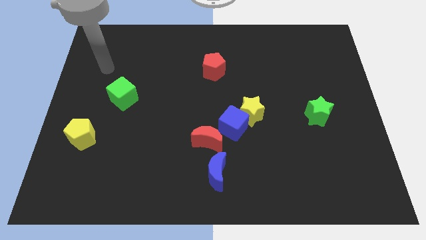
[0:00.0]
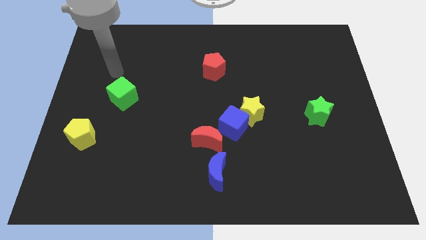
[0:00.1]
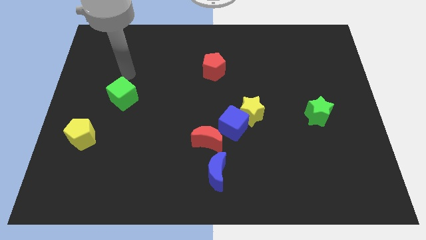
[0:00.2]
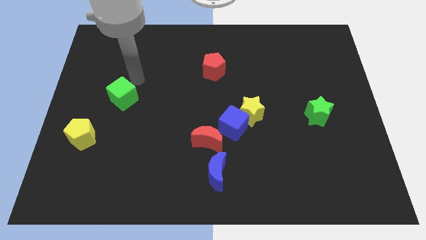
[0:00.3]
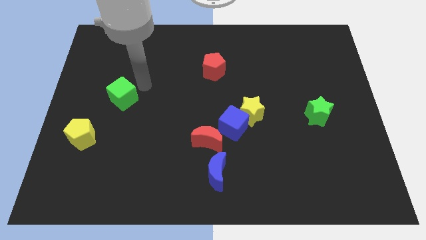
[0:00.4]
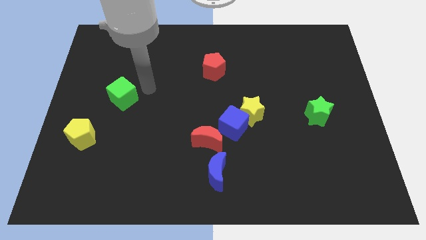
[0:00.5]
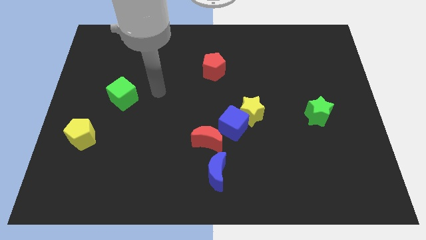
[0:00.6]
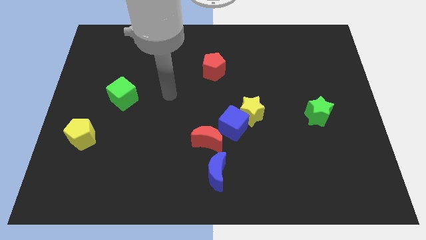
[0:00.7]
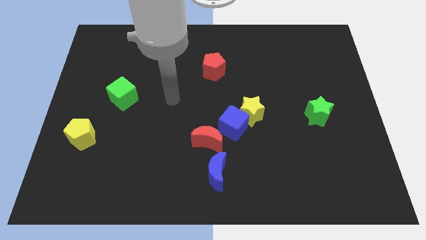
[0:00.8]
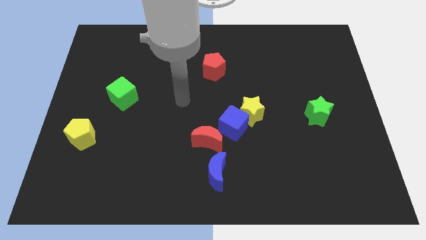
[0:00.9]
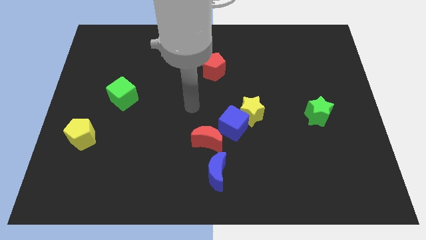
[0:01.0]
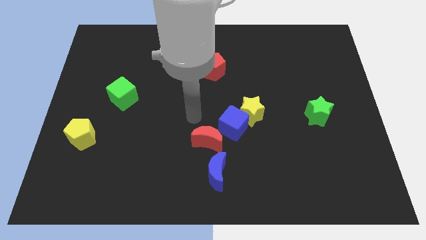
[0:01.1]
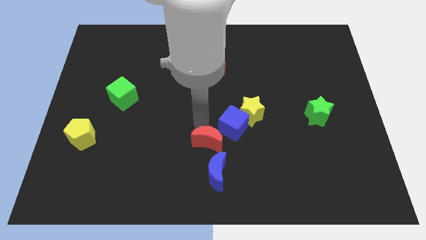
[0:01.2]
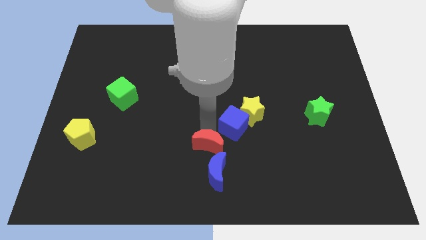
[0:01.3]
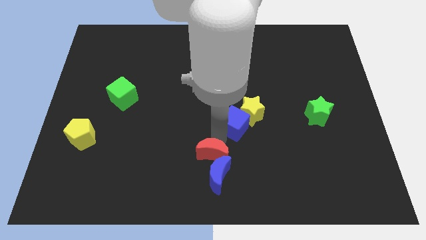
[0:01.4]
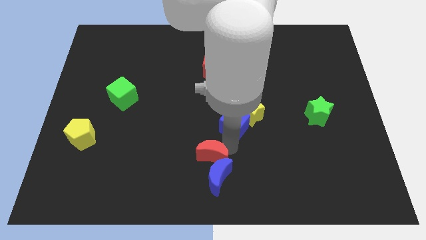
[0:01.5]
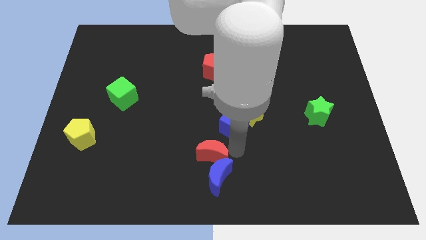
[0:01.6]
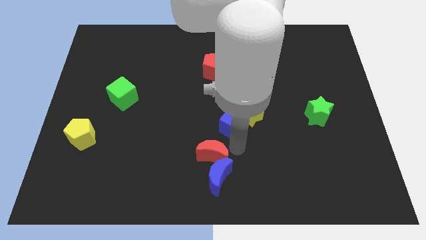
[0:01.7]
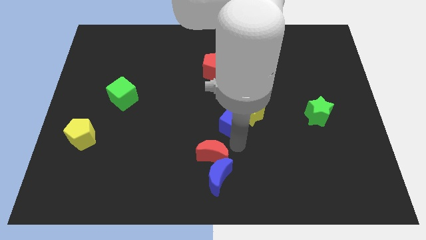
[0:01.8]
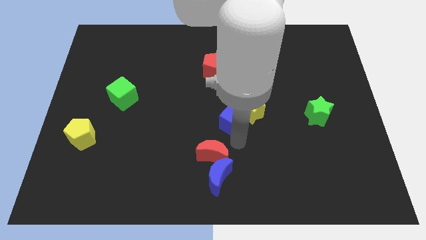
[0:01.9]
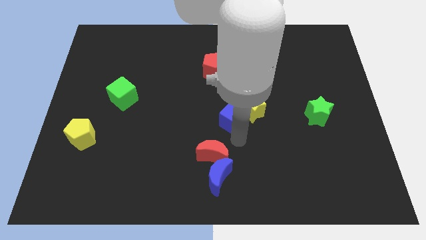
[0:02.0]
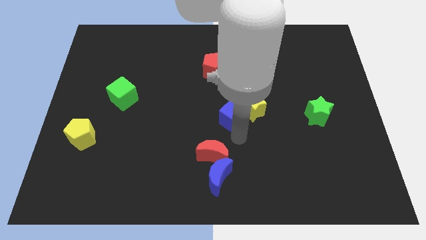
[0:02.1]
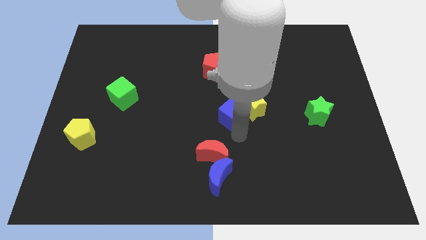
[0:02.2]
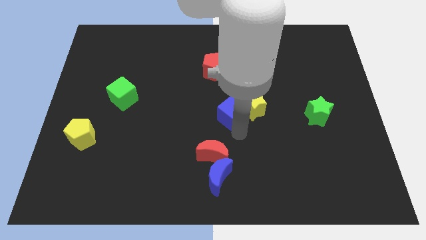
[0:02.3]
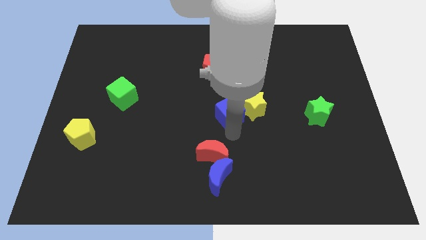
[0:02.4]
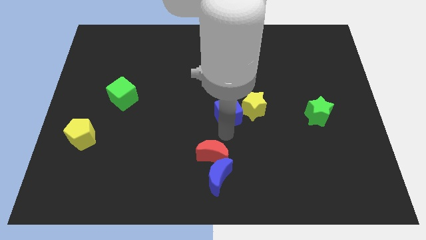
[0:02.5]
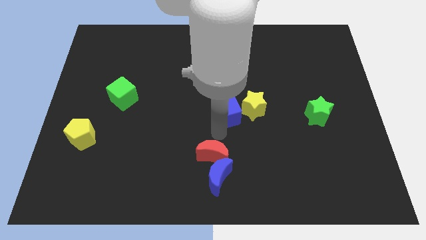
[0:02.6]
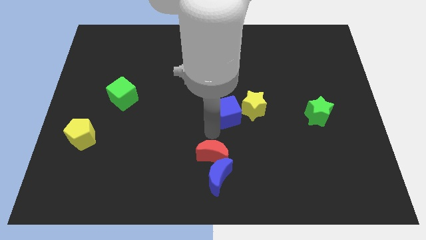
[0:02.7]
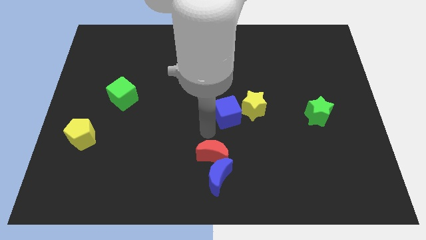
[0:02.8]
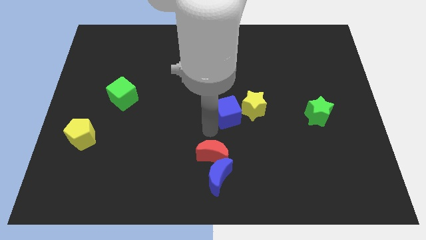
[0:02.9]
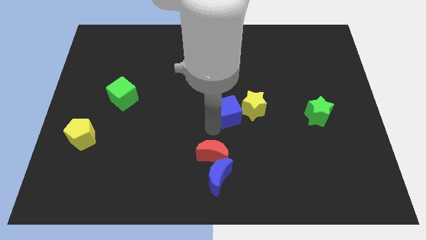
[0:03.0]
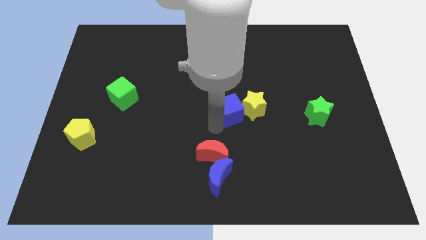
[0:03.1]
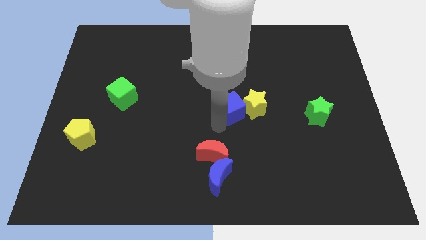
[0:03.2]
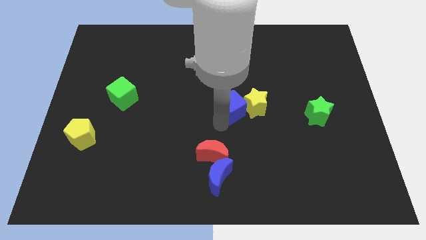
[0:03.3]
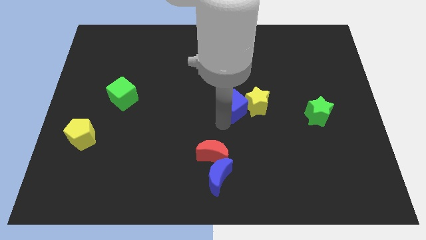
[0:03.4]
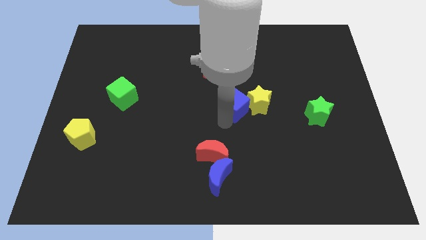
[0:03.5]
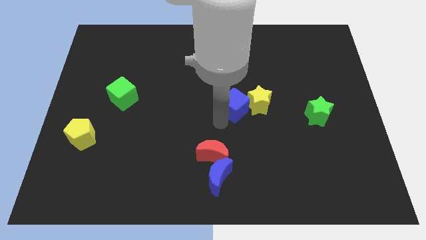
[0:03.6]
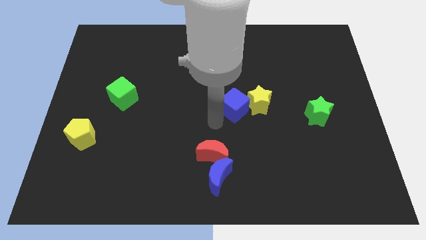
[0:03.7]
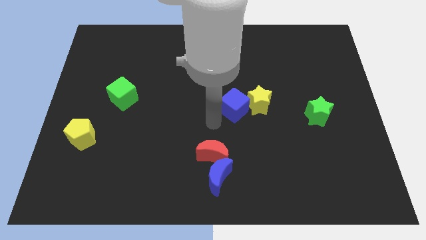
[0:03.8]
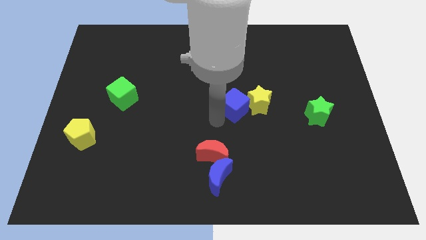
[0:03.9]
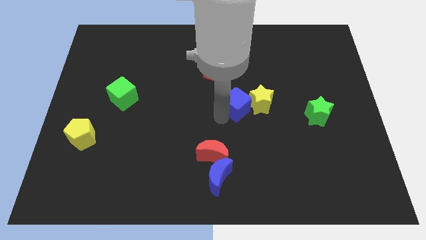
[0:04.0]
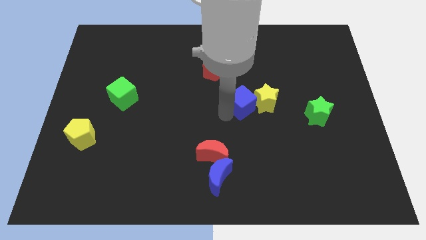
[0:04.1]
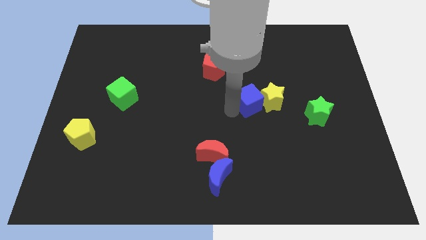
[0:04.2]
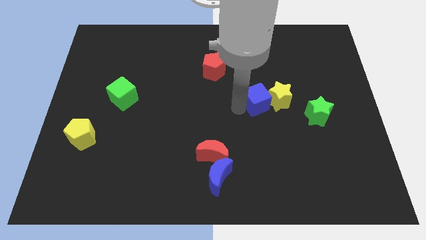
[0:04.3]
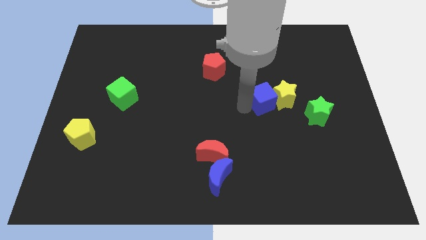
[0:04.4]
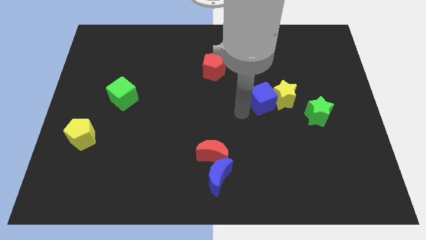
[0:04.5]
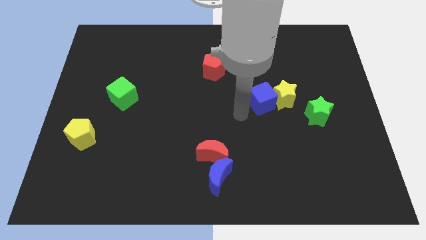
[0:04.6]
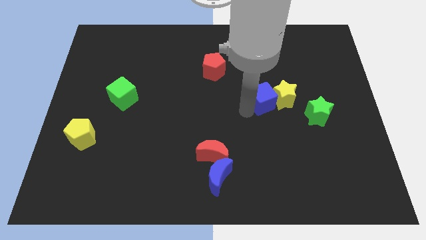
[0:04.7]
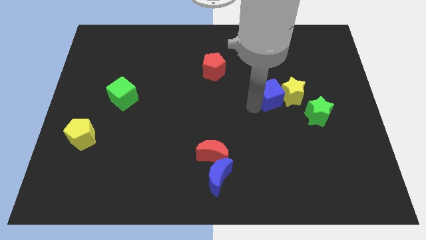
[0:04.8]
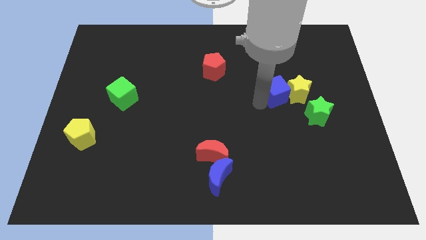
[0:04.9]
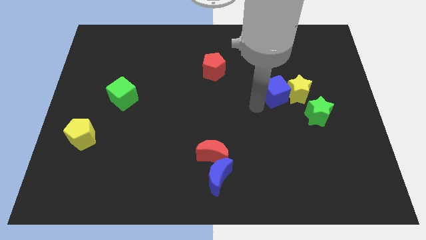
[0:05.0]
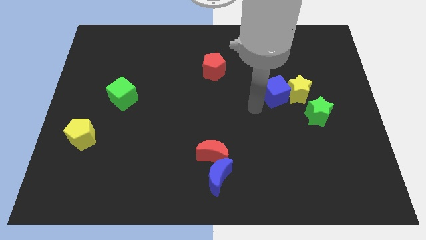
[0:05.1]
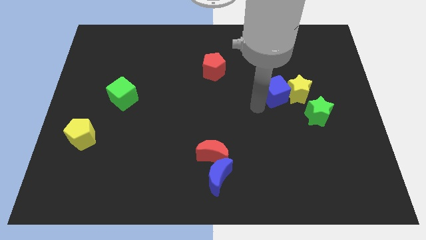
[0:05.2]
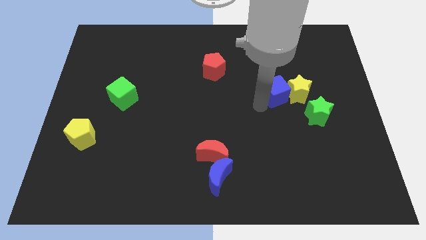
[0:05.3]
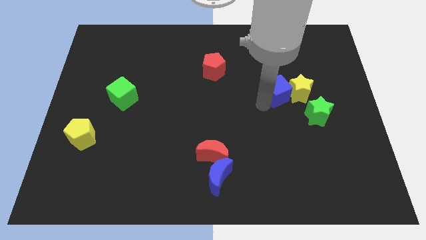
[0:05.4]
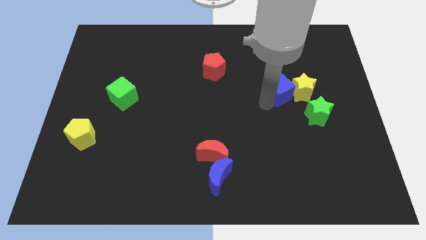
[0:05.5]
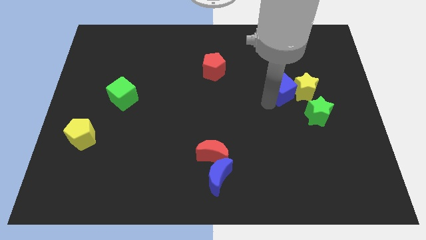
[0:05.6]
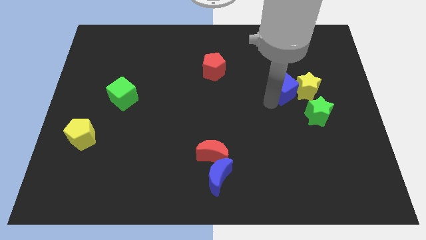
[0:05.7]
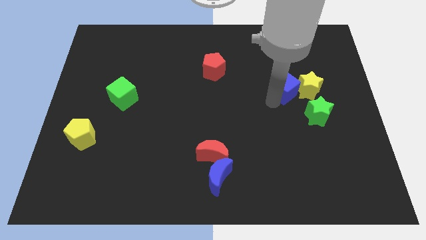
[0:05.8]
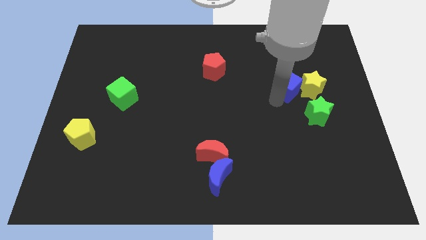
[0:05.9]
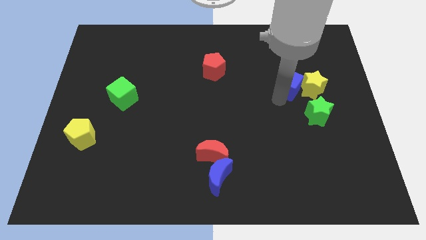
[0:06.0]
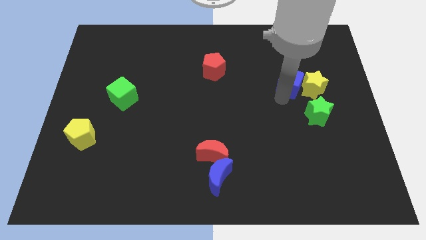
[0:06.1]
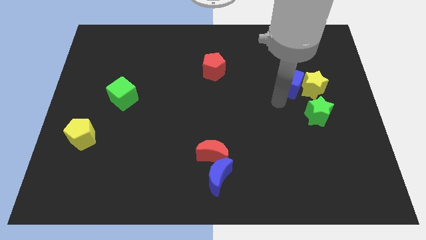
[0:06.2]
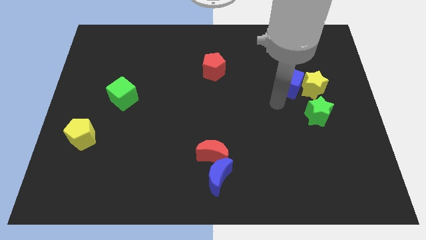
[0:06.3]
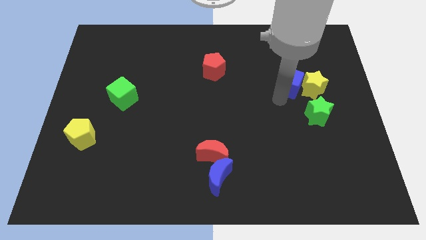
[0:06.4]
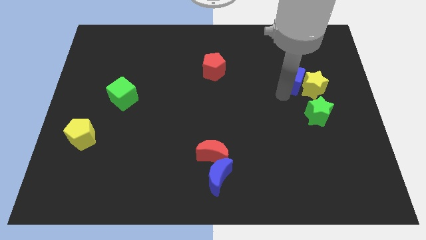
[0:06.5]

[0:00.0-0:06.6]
slide the blue cube upwards and right

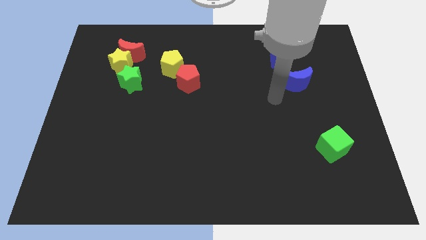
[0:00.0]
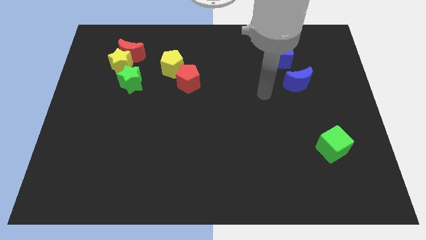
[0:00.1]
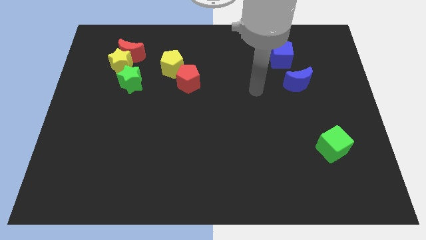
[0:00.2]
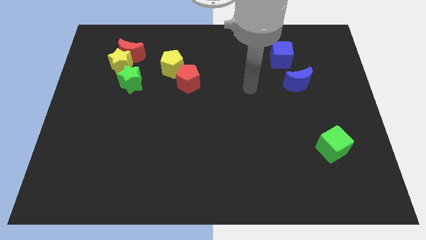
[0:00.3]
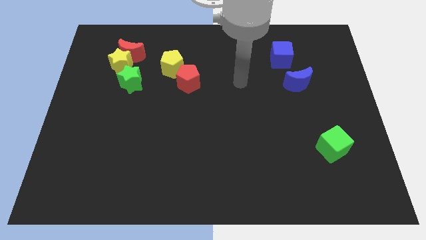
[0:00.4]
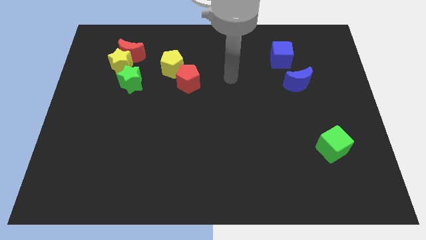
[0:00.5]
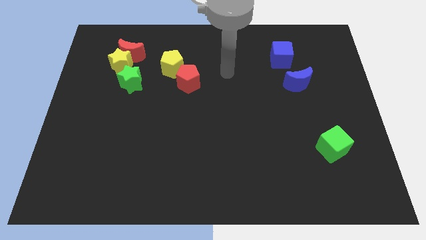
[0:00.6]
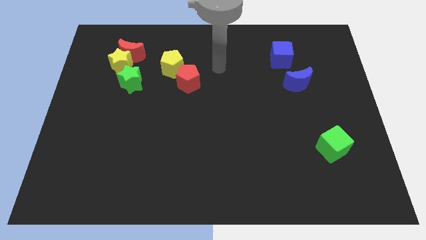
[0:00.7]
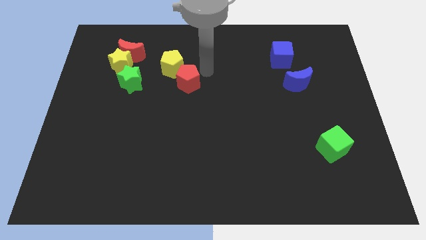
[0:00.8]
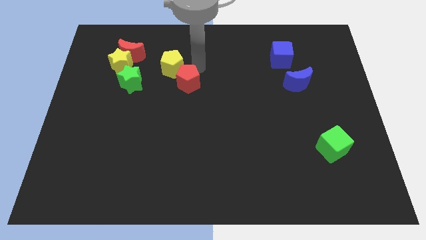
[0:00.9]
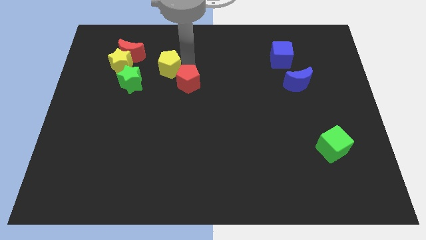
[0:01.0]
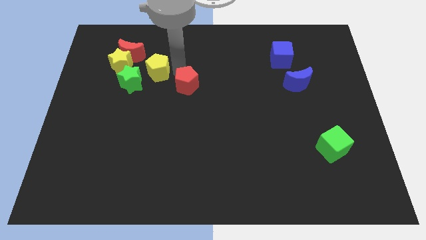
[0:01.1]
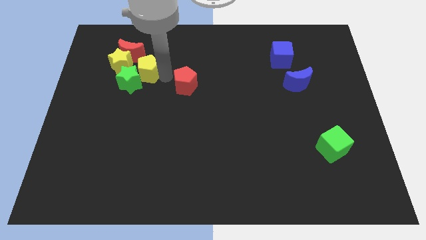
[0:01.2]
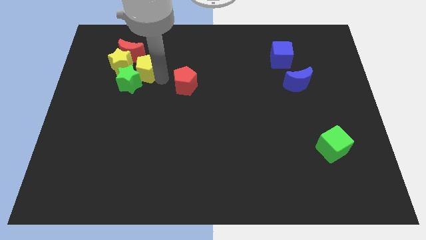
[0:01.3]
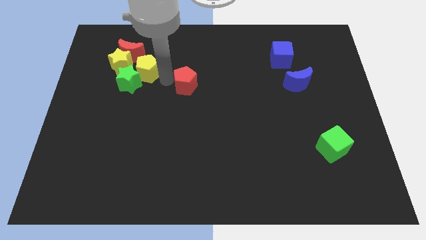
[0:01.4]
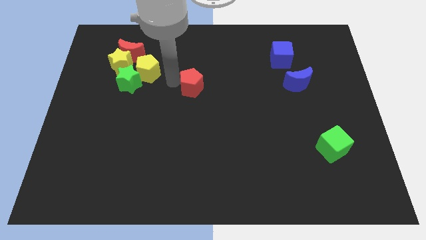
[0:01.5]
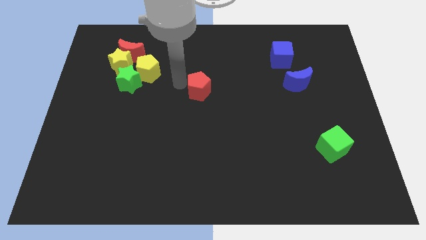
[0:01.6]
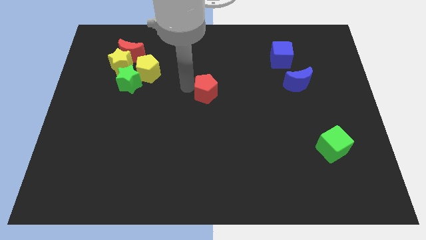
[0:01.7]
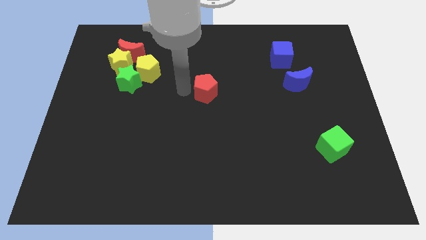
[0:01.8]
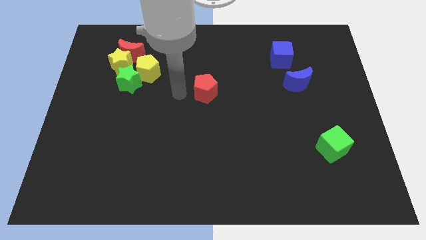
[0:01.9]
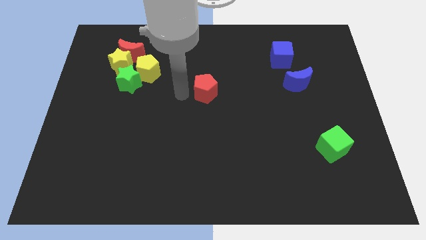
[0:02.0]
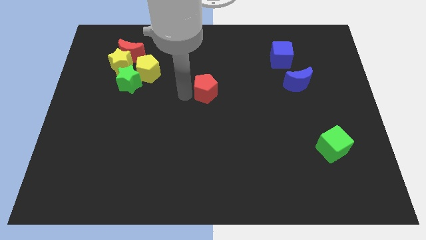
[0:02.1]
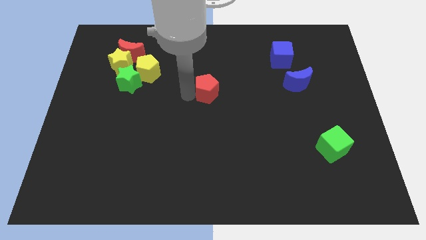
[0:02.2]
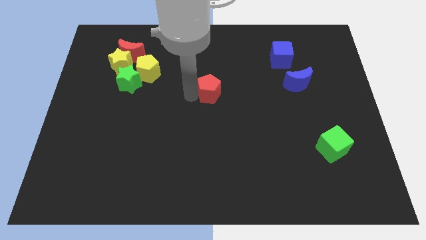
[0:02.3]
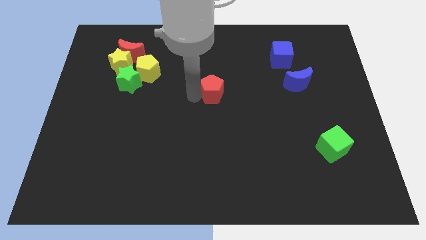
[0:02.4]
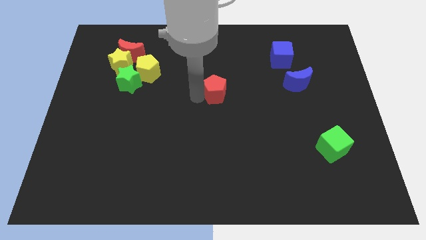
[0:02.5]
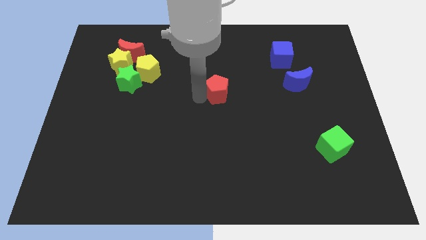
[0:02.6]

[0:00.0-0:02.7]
slightly move the red pentagon to the right
